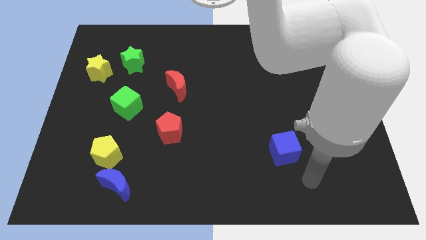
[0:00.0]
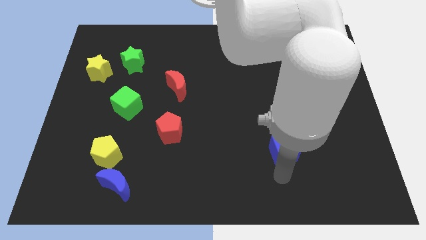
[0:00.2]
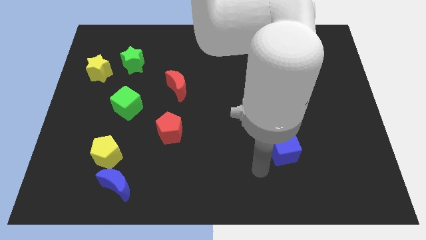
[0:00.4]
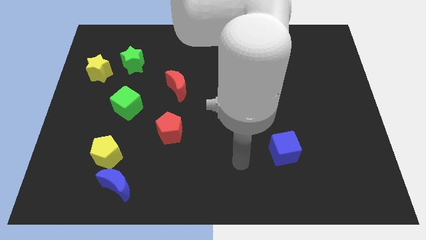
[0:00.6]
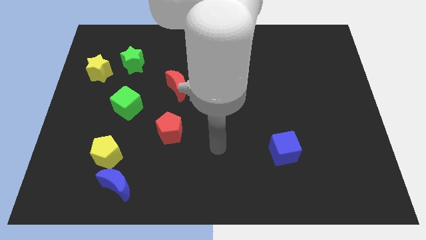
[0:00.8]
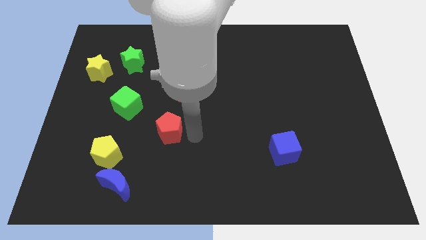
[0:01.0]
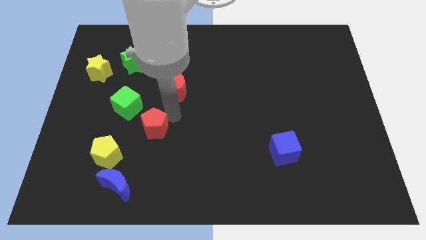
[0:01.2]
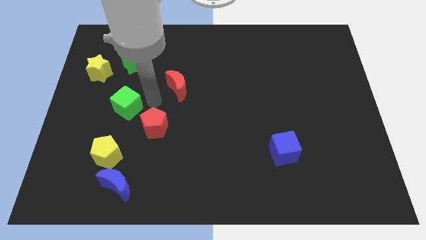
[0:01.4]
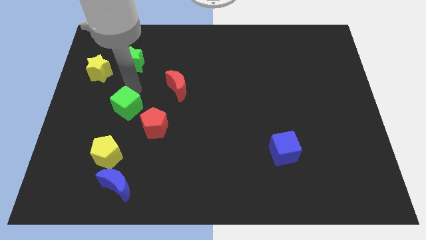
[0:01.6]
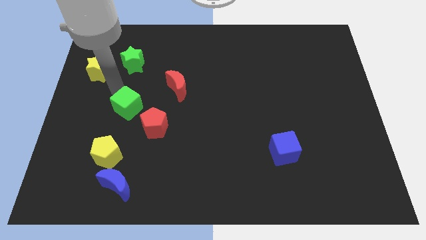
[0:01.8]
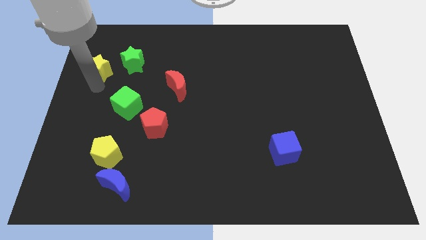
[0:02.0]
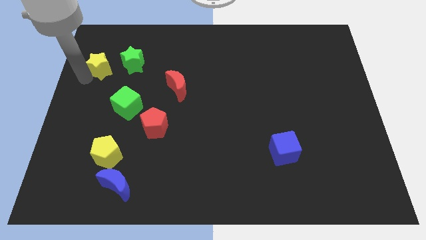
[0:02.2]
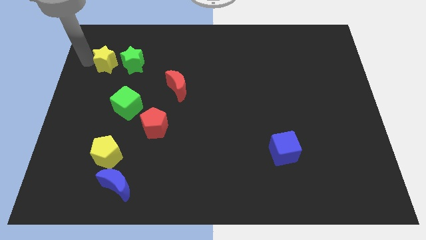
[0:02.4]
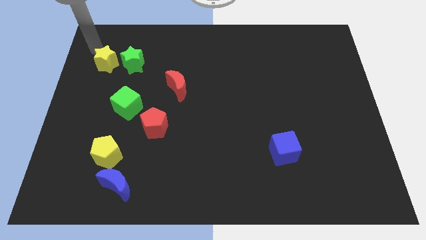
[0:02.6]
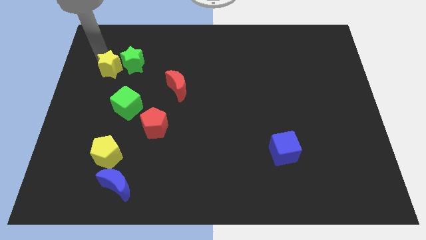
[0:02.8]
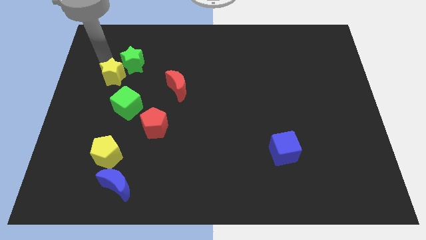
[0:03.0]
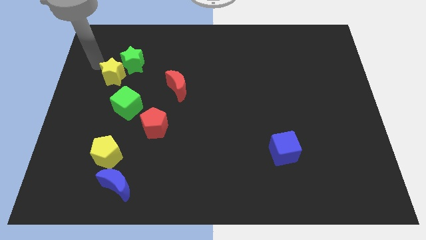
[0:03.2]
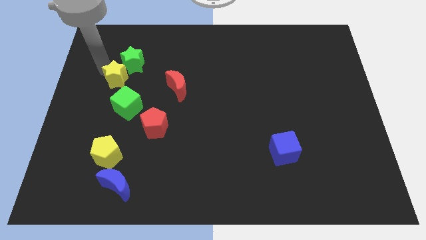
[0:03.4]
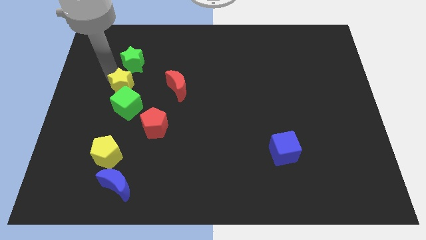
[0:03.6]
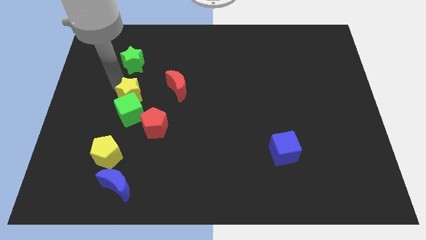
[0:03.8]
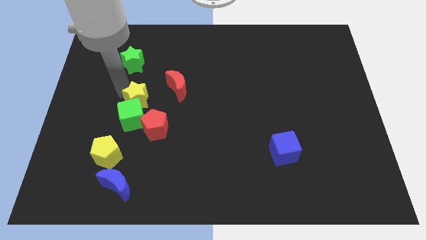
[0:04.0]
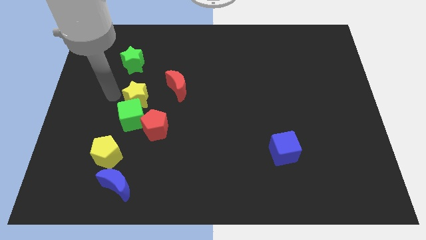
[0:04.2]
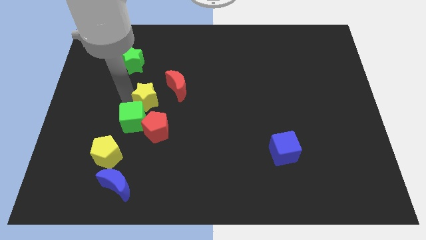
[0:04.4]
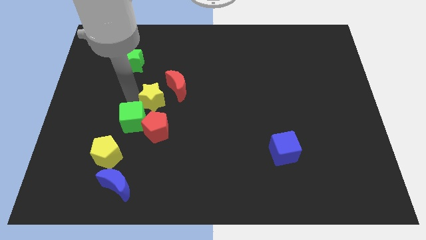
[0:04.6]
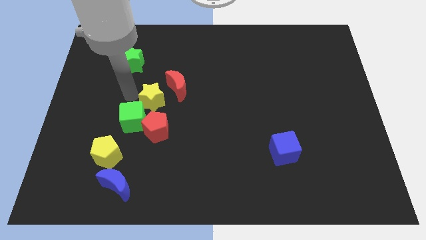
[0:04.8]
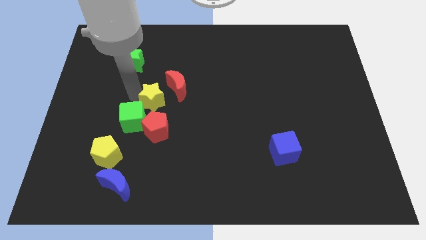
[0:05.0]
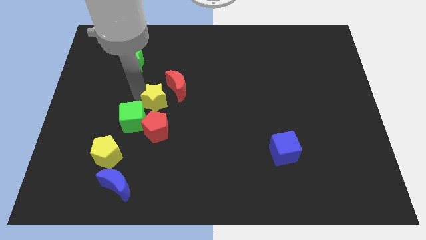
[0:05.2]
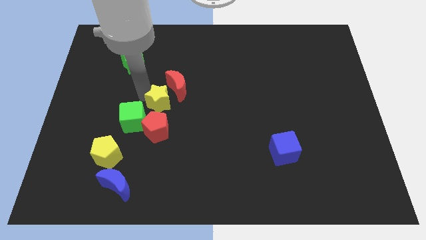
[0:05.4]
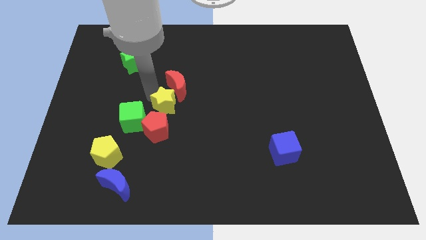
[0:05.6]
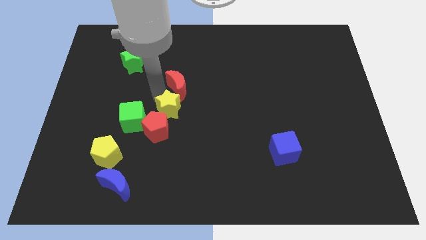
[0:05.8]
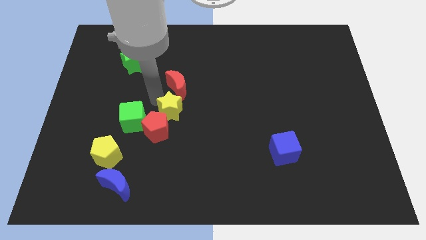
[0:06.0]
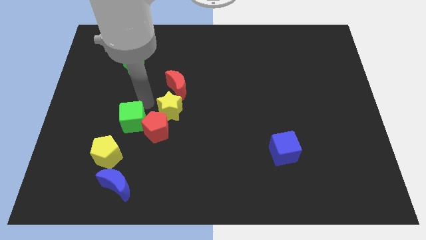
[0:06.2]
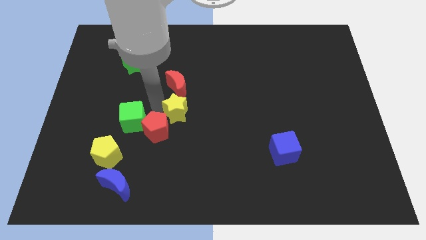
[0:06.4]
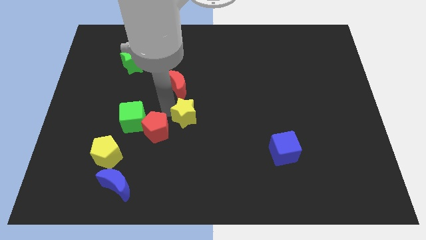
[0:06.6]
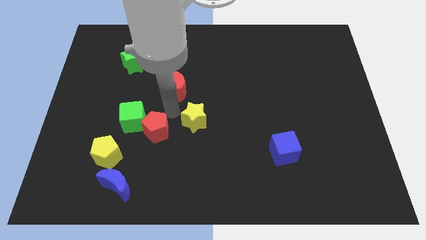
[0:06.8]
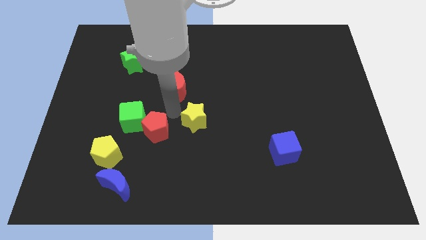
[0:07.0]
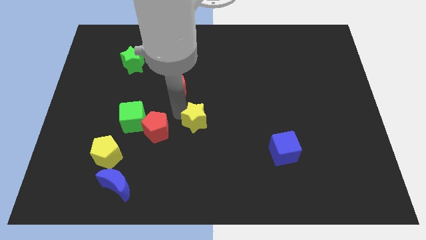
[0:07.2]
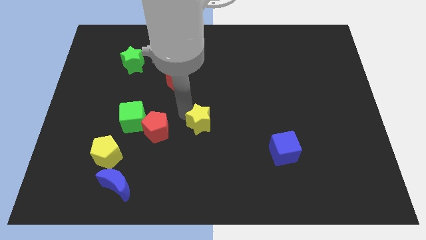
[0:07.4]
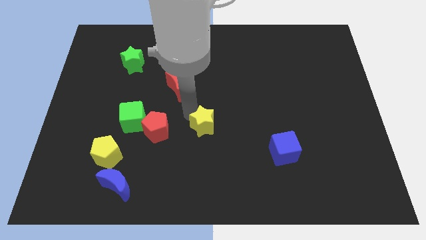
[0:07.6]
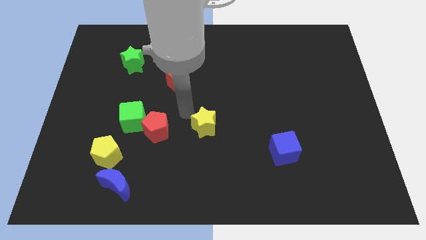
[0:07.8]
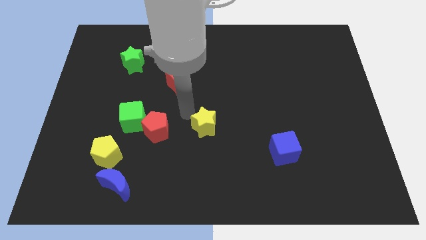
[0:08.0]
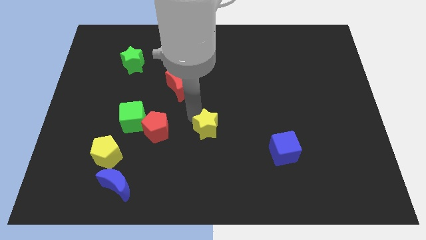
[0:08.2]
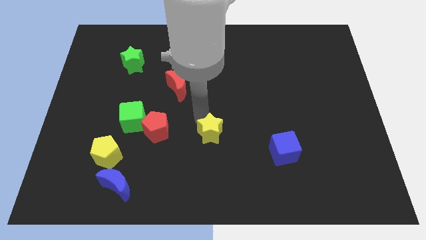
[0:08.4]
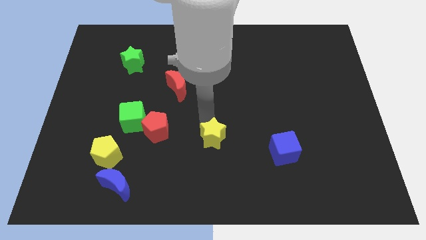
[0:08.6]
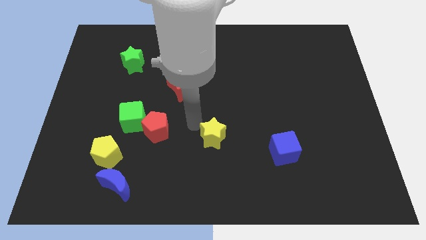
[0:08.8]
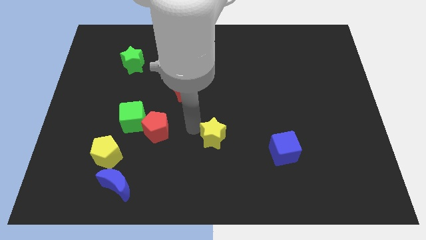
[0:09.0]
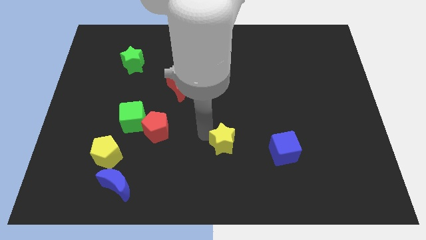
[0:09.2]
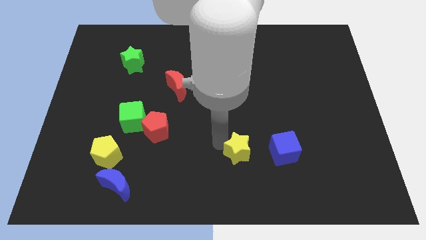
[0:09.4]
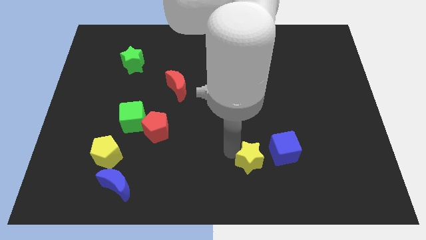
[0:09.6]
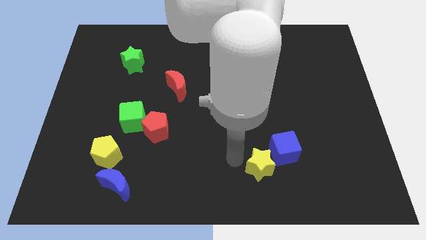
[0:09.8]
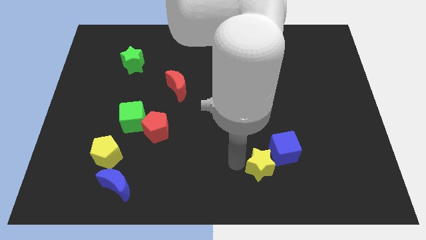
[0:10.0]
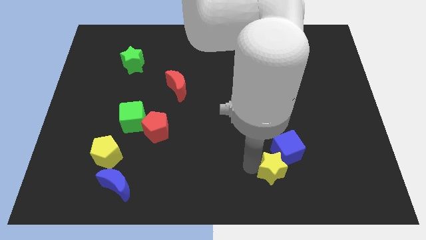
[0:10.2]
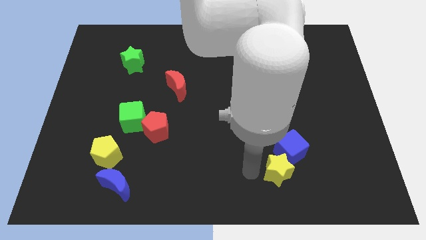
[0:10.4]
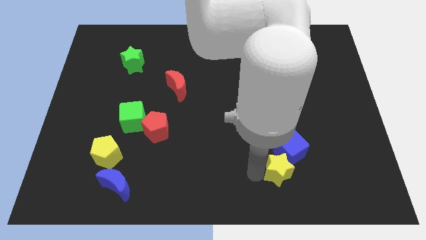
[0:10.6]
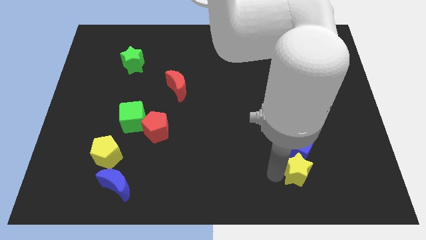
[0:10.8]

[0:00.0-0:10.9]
slide the yellow star to the bottom right side of the blue cube

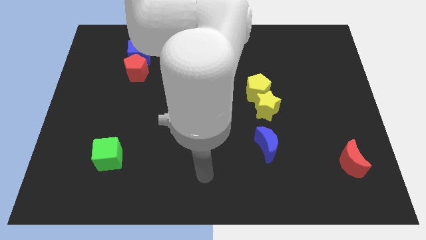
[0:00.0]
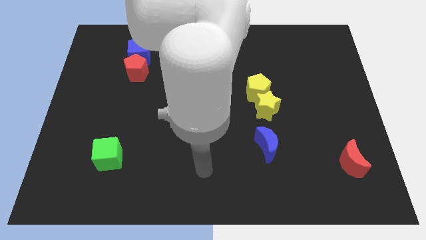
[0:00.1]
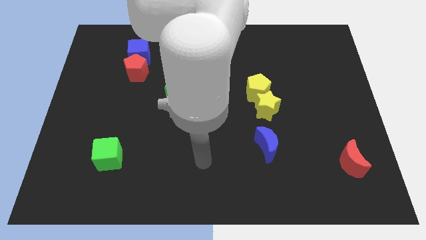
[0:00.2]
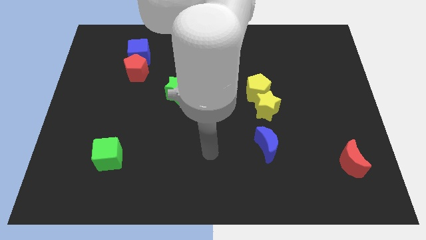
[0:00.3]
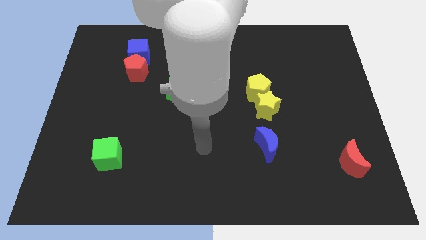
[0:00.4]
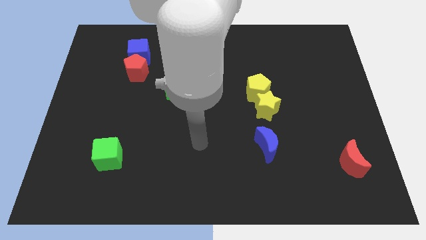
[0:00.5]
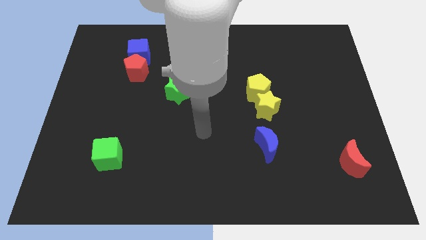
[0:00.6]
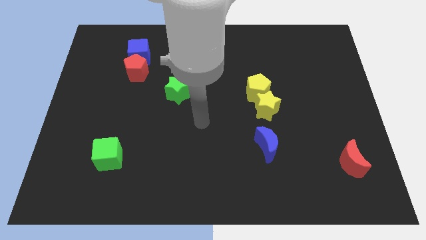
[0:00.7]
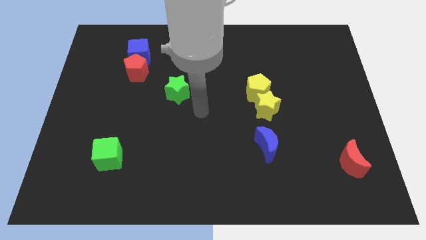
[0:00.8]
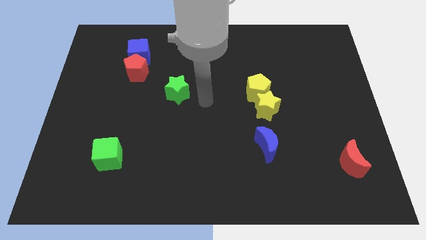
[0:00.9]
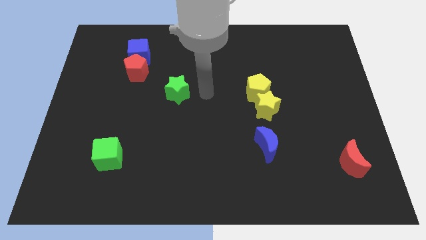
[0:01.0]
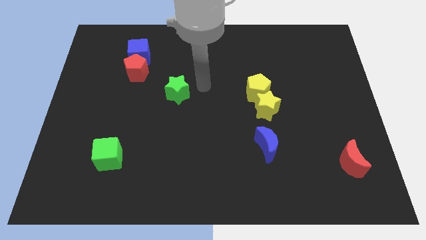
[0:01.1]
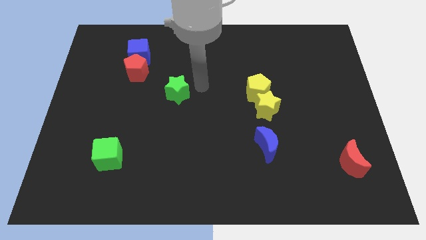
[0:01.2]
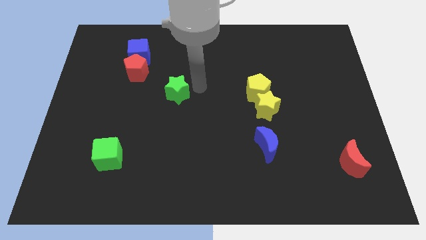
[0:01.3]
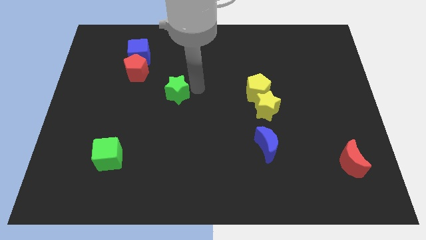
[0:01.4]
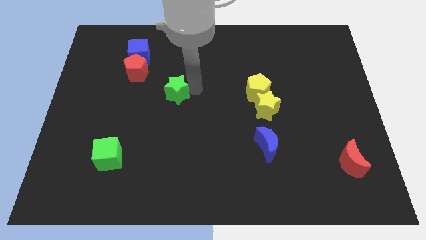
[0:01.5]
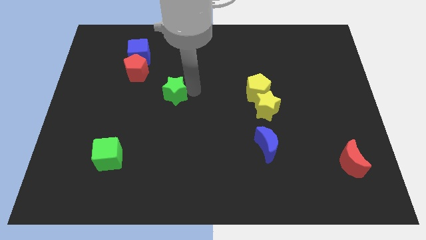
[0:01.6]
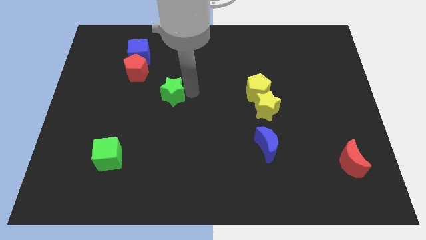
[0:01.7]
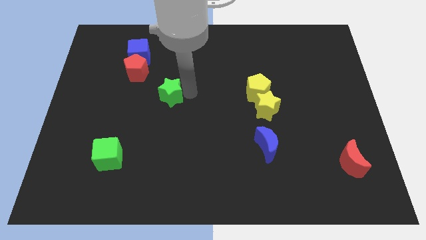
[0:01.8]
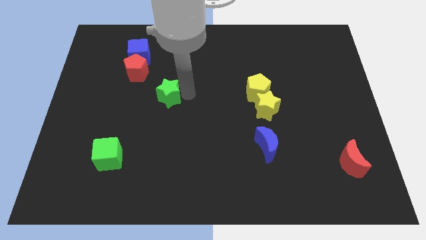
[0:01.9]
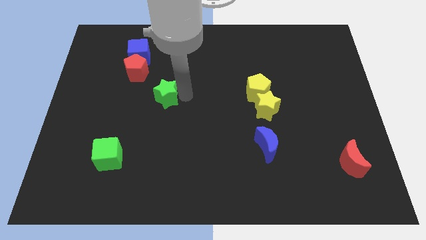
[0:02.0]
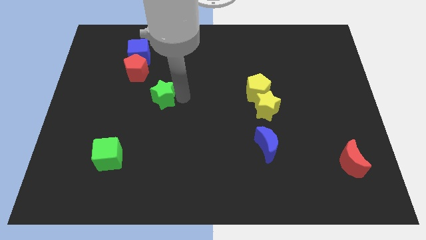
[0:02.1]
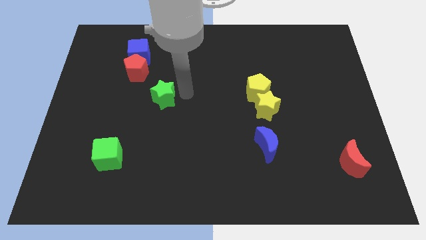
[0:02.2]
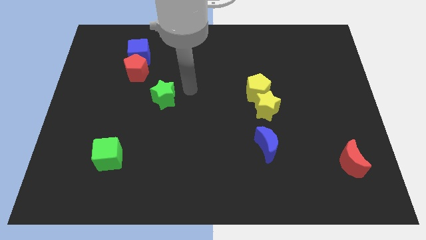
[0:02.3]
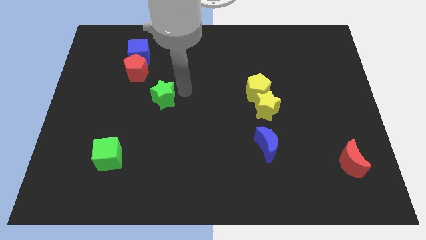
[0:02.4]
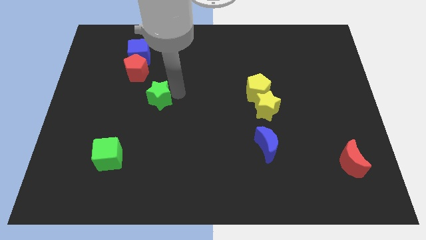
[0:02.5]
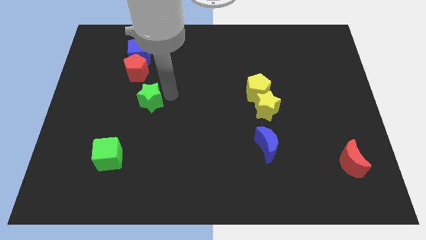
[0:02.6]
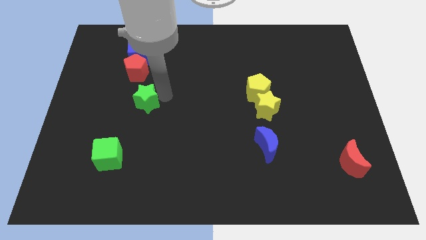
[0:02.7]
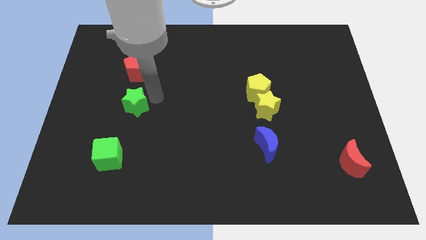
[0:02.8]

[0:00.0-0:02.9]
move the green star to the top of the green cube
